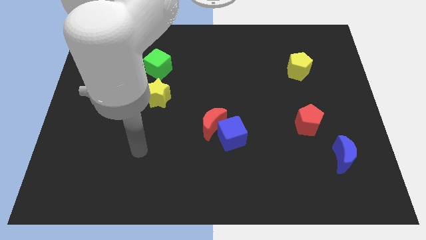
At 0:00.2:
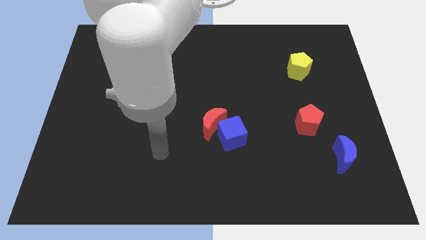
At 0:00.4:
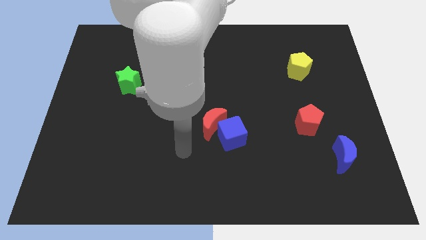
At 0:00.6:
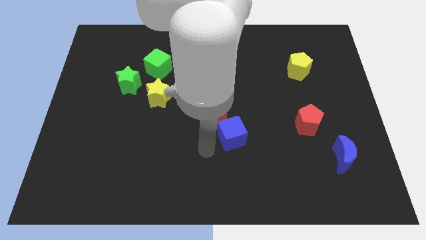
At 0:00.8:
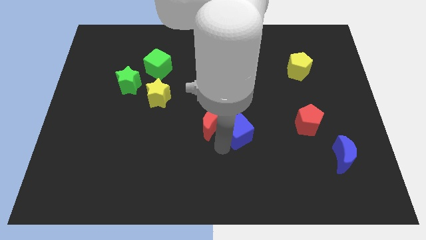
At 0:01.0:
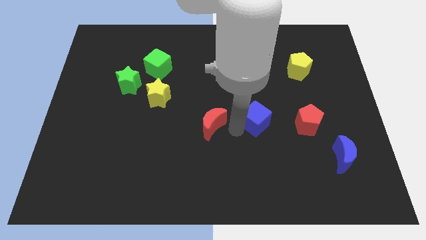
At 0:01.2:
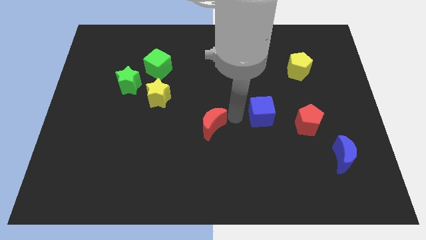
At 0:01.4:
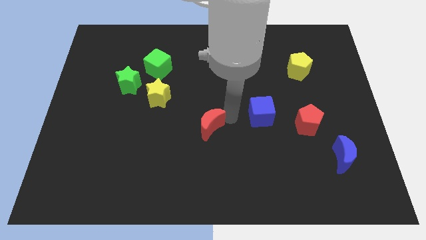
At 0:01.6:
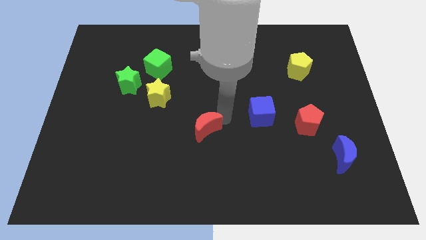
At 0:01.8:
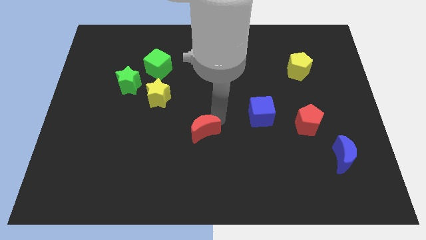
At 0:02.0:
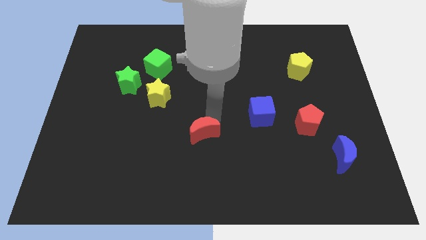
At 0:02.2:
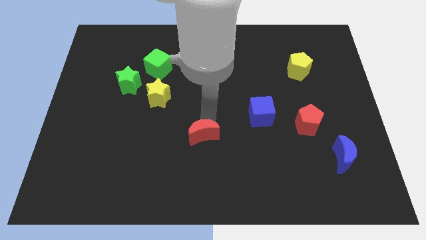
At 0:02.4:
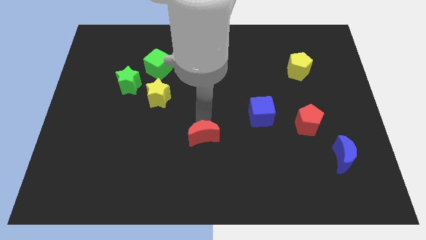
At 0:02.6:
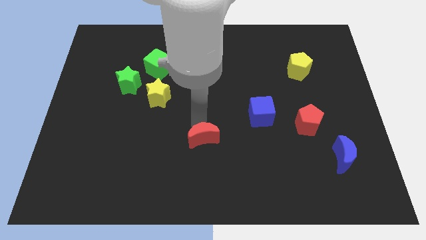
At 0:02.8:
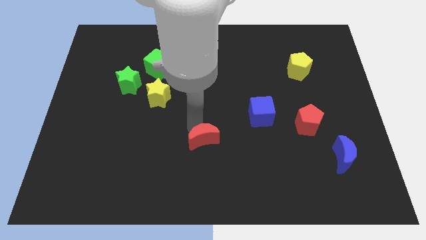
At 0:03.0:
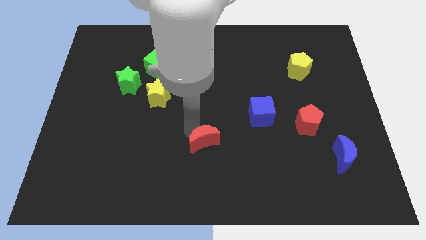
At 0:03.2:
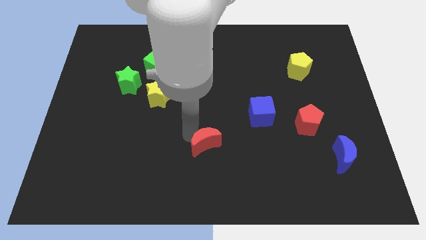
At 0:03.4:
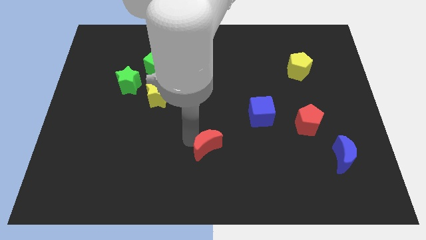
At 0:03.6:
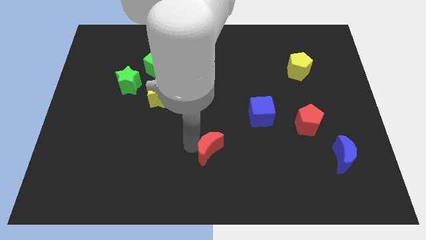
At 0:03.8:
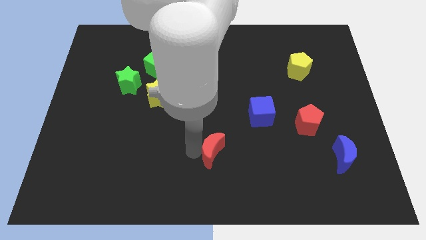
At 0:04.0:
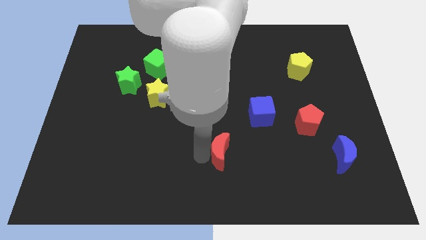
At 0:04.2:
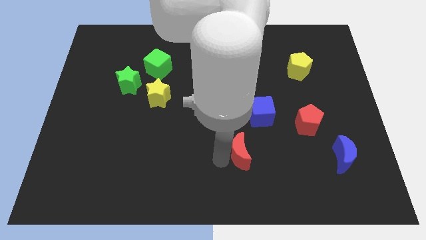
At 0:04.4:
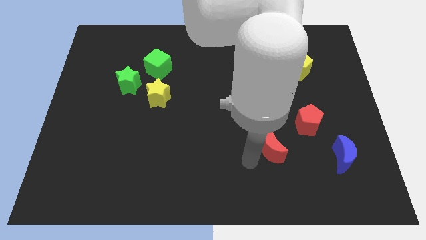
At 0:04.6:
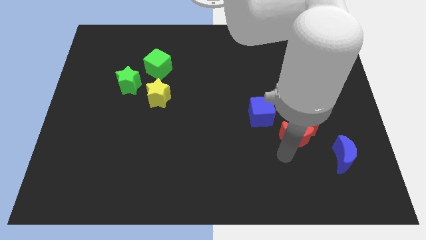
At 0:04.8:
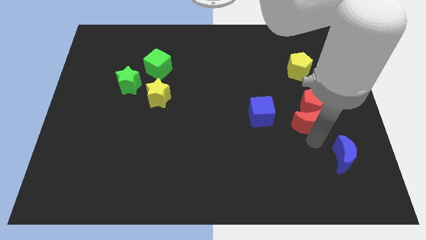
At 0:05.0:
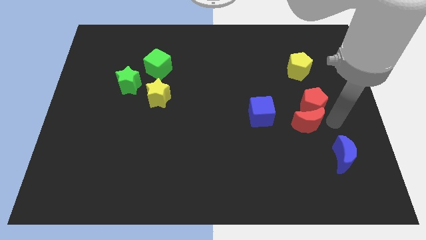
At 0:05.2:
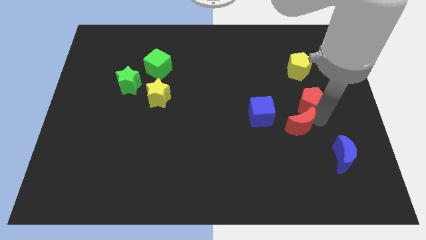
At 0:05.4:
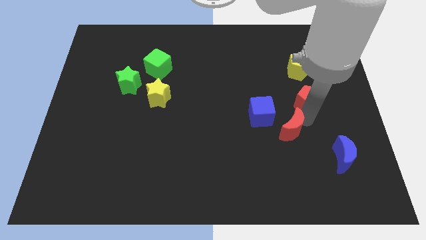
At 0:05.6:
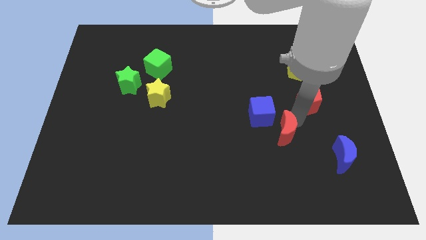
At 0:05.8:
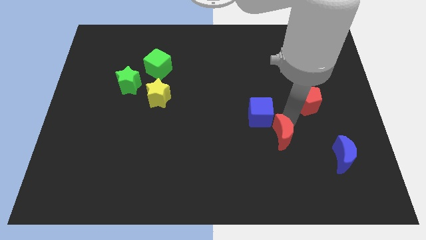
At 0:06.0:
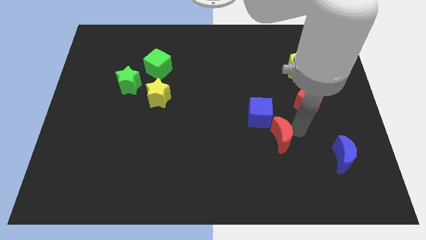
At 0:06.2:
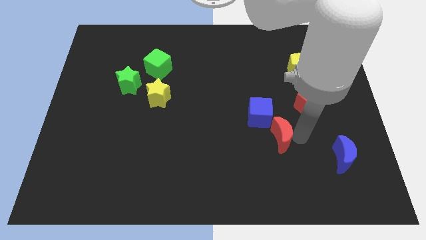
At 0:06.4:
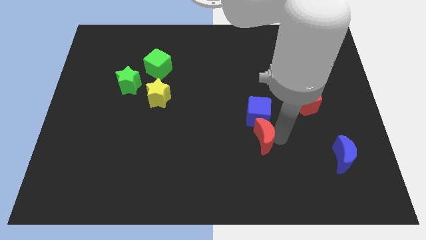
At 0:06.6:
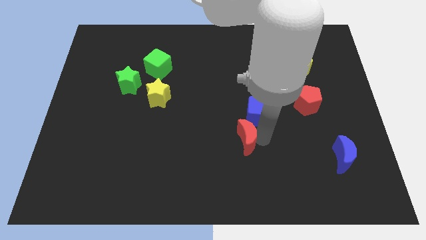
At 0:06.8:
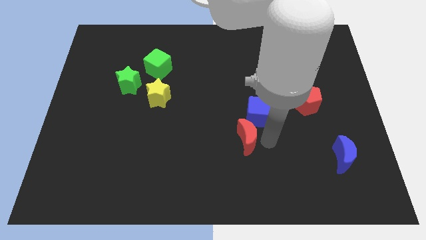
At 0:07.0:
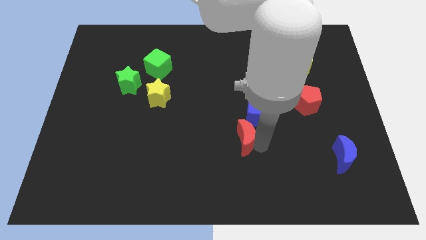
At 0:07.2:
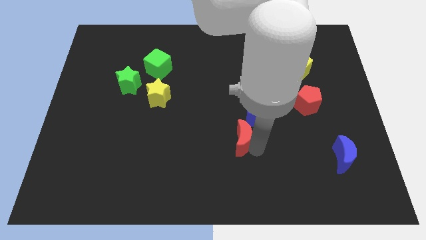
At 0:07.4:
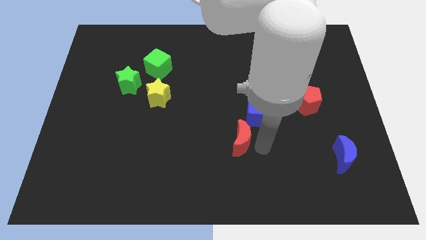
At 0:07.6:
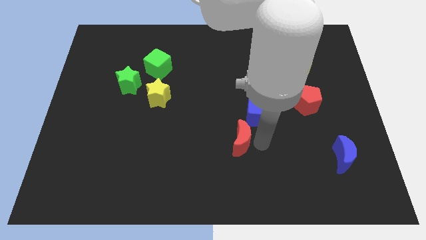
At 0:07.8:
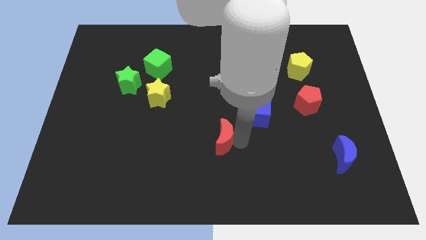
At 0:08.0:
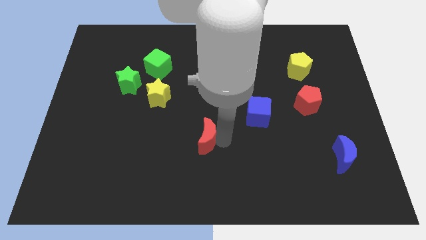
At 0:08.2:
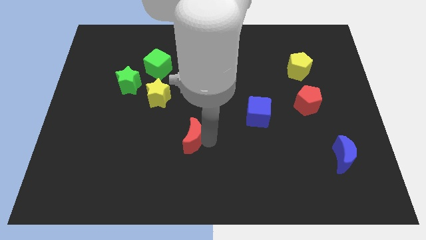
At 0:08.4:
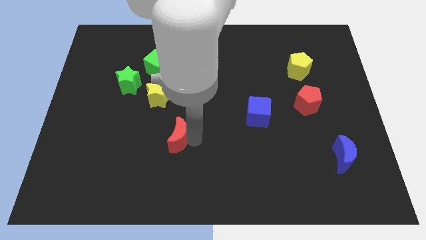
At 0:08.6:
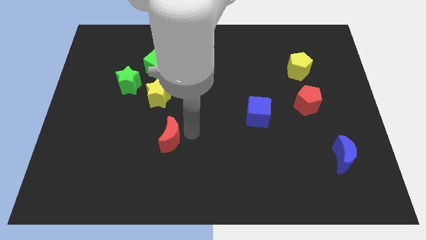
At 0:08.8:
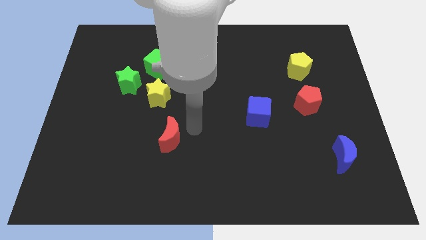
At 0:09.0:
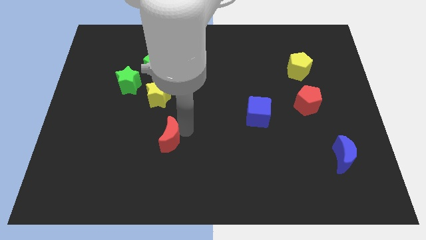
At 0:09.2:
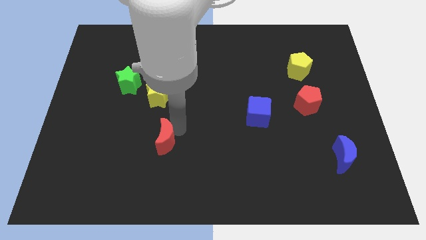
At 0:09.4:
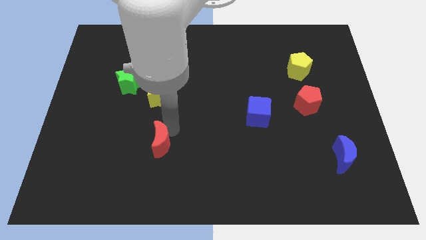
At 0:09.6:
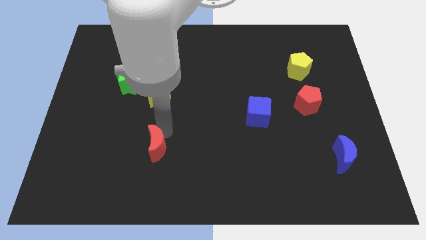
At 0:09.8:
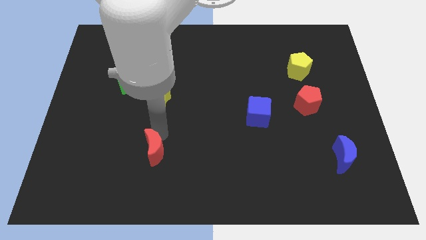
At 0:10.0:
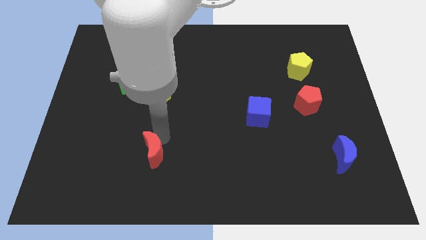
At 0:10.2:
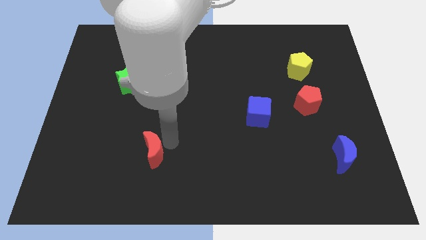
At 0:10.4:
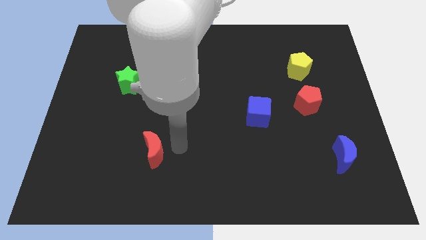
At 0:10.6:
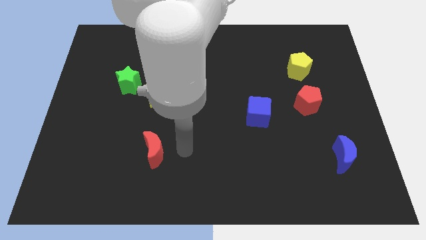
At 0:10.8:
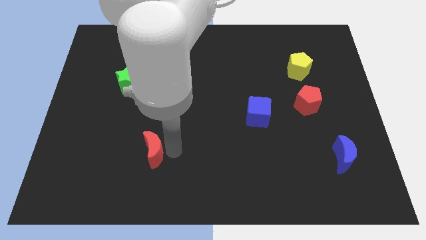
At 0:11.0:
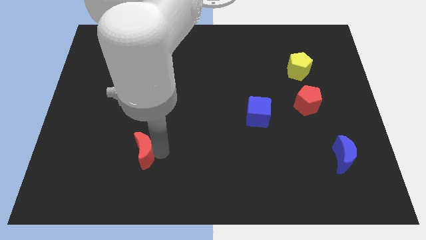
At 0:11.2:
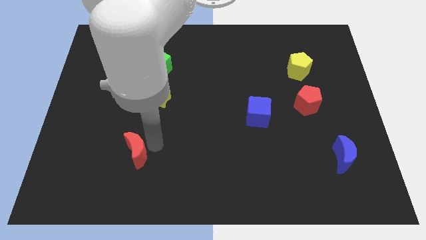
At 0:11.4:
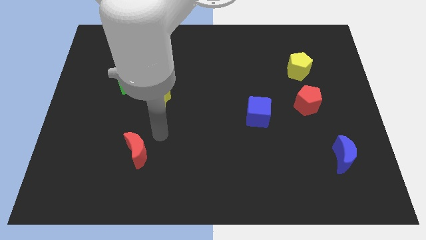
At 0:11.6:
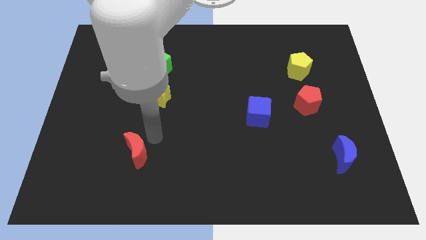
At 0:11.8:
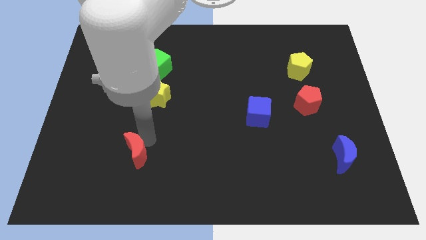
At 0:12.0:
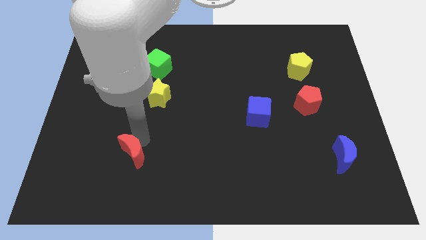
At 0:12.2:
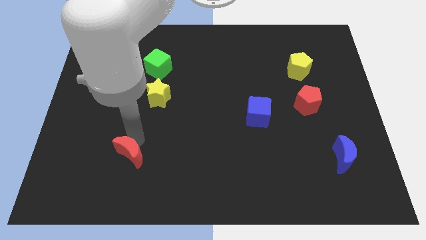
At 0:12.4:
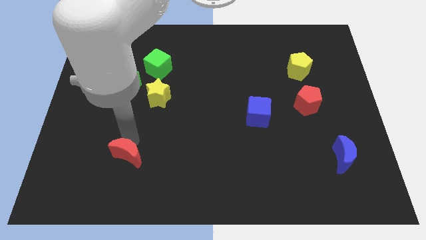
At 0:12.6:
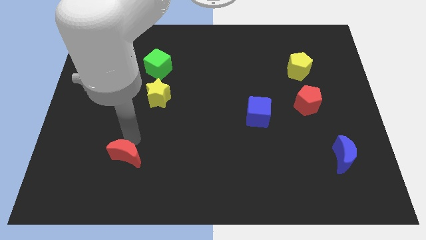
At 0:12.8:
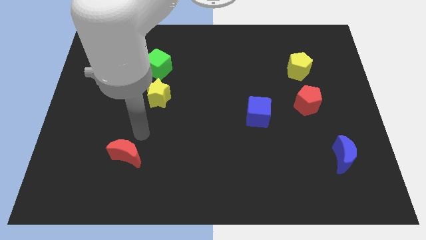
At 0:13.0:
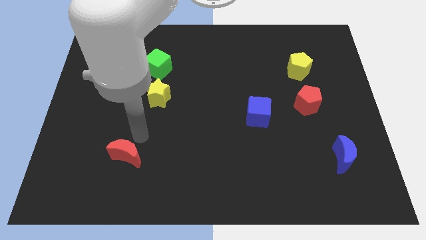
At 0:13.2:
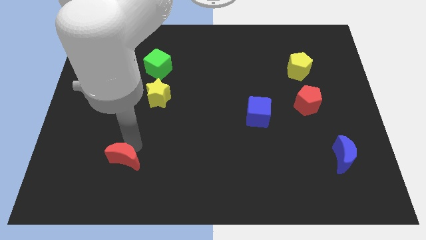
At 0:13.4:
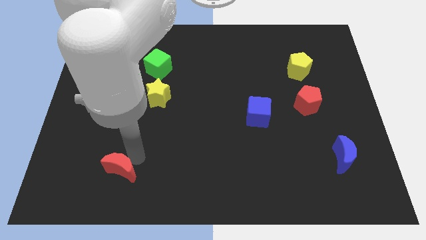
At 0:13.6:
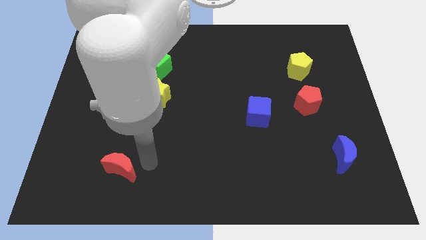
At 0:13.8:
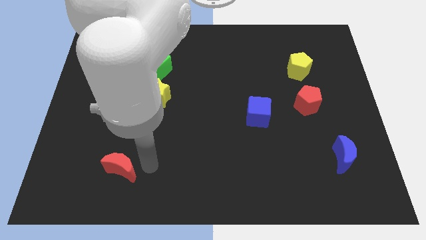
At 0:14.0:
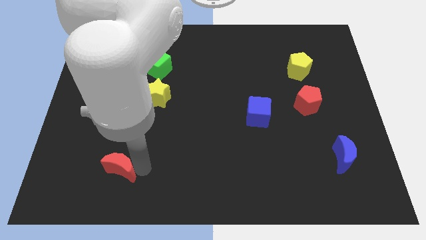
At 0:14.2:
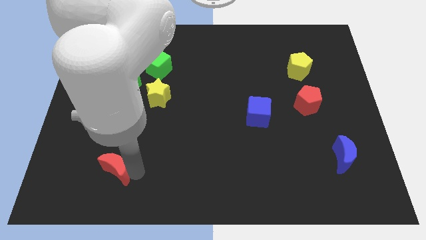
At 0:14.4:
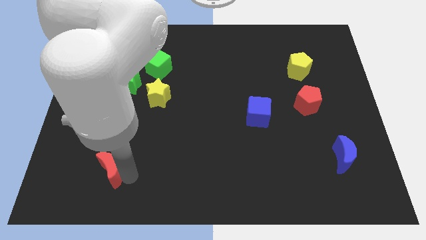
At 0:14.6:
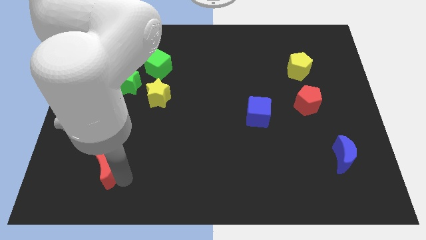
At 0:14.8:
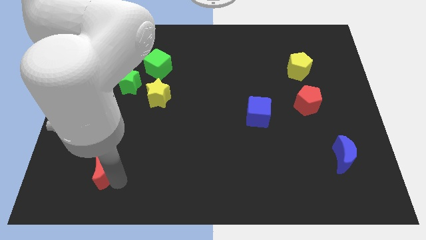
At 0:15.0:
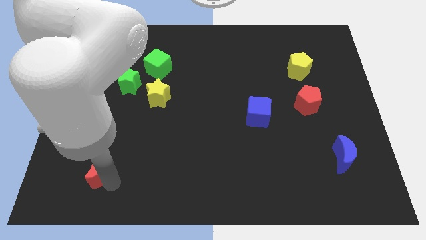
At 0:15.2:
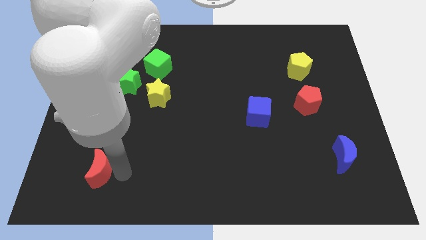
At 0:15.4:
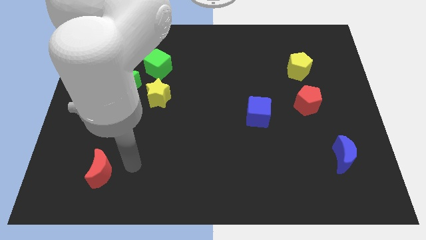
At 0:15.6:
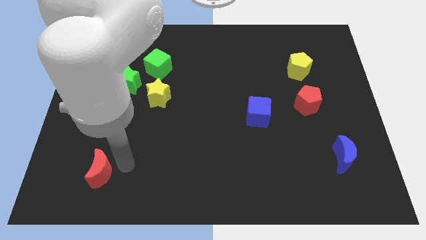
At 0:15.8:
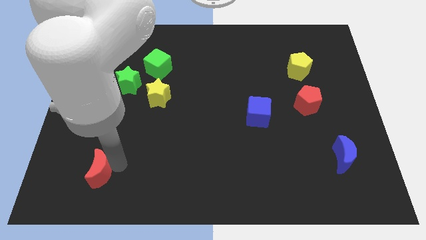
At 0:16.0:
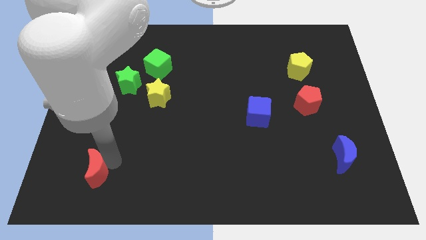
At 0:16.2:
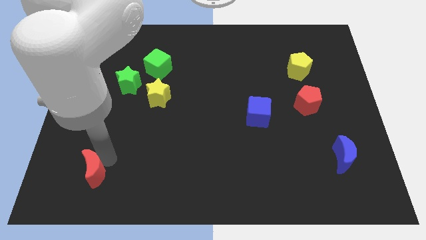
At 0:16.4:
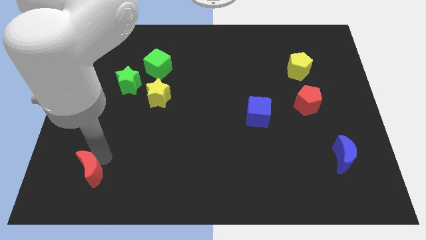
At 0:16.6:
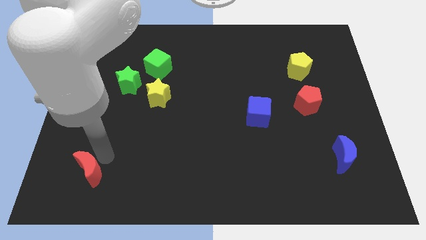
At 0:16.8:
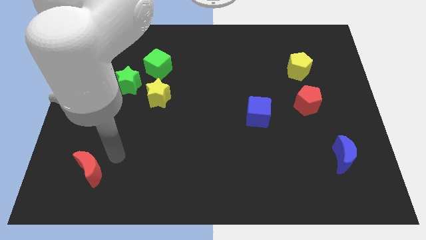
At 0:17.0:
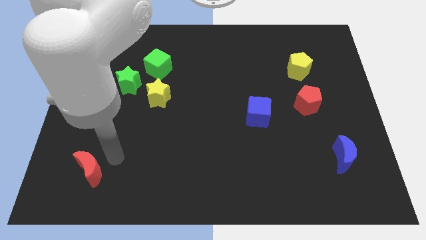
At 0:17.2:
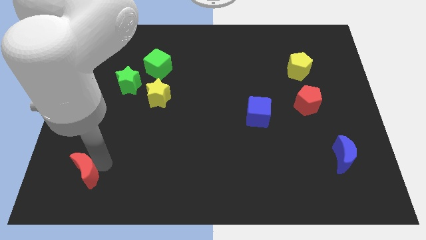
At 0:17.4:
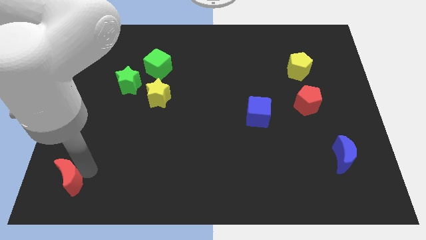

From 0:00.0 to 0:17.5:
move the red moon to the bottom left
